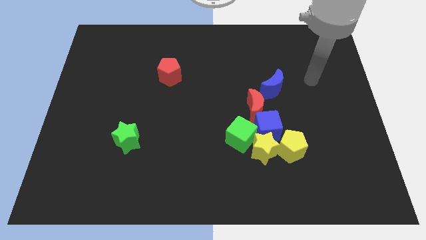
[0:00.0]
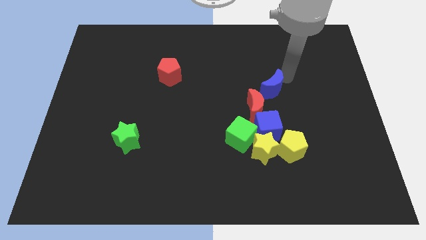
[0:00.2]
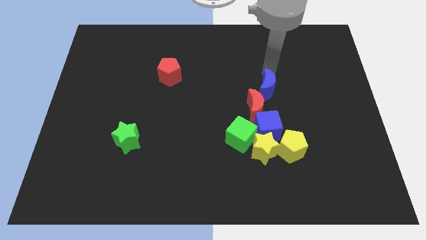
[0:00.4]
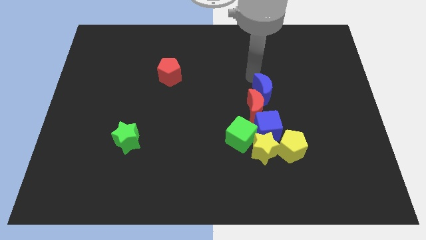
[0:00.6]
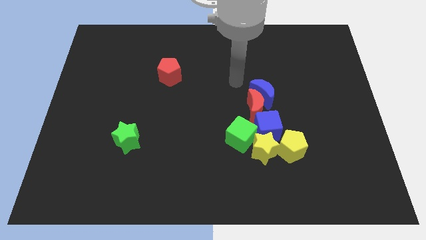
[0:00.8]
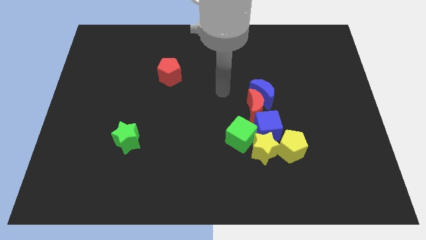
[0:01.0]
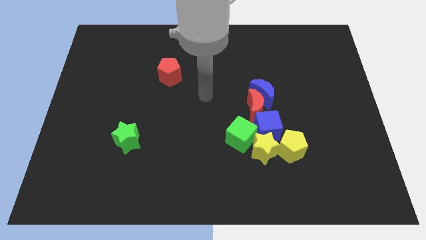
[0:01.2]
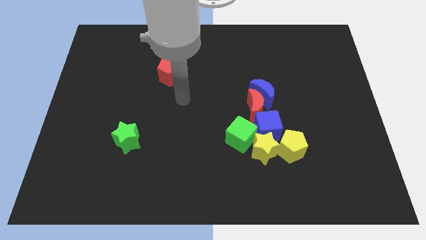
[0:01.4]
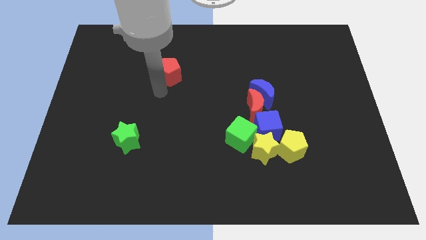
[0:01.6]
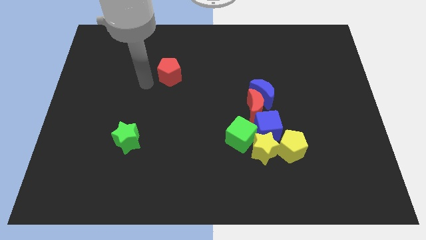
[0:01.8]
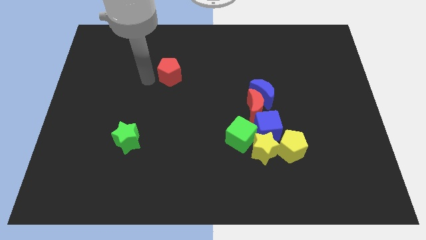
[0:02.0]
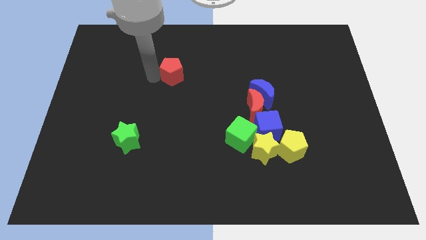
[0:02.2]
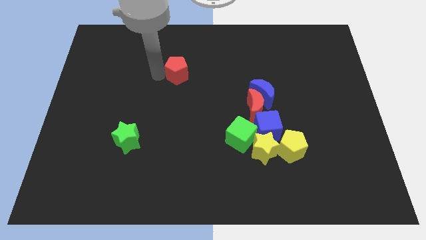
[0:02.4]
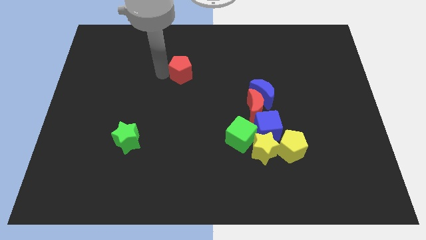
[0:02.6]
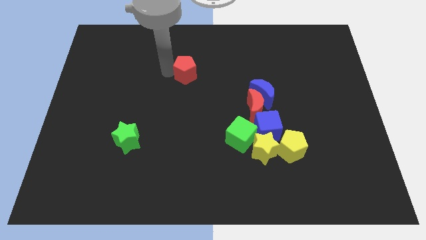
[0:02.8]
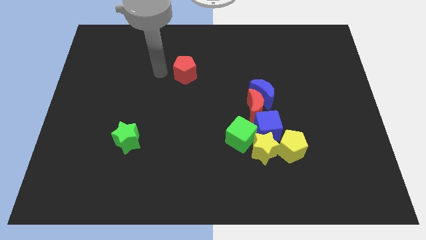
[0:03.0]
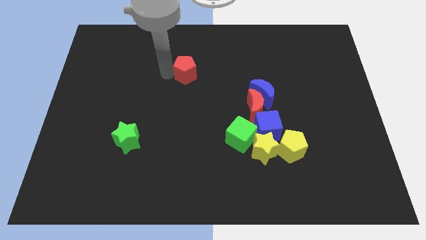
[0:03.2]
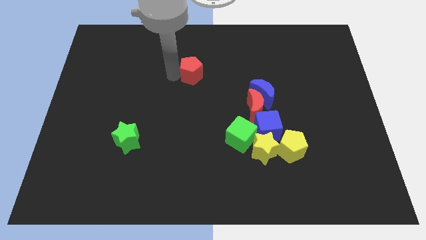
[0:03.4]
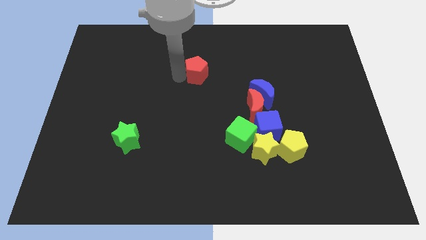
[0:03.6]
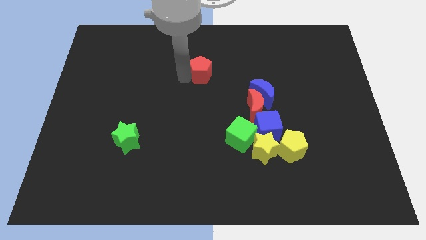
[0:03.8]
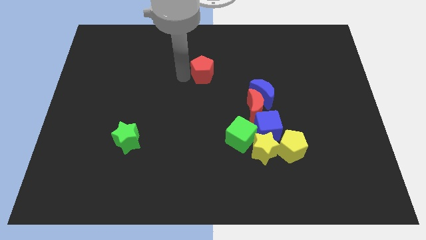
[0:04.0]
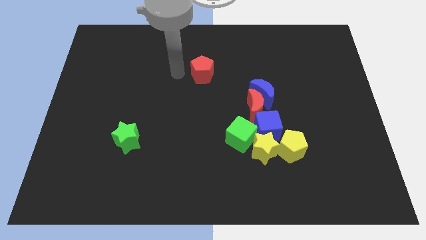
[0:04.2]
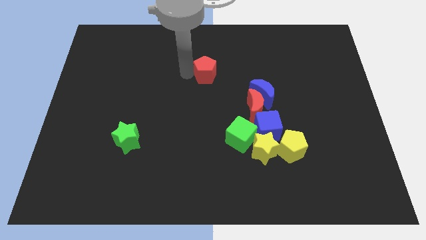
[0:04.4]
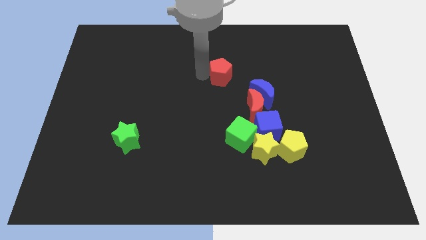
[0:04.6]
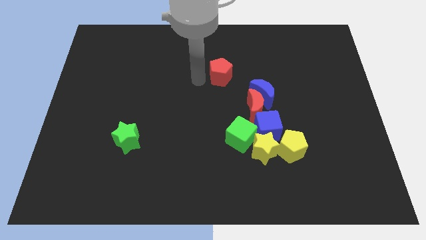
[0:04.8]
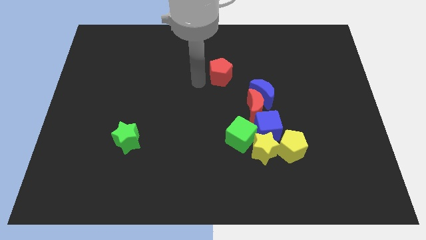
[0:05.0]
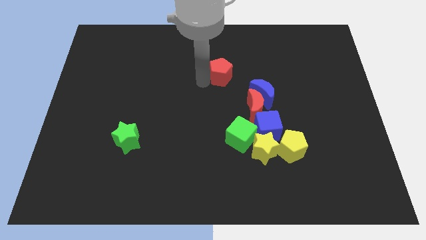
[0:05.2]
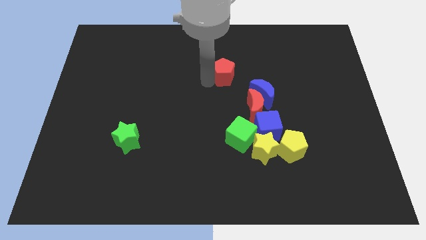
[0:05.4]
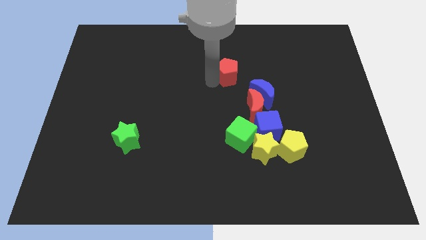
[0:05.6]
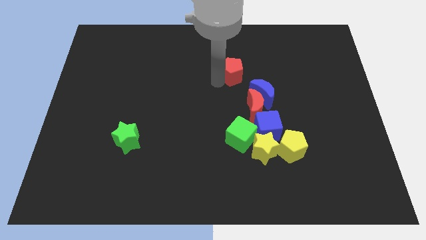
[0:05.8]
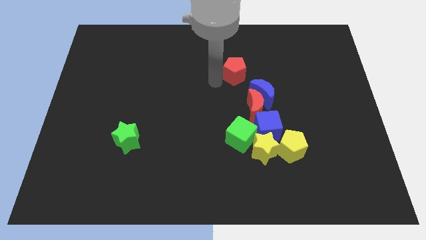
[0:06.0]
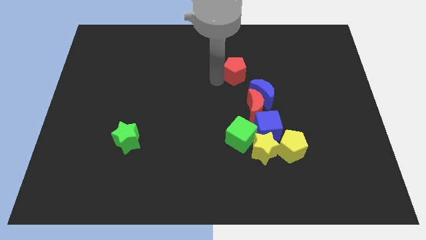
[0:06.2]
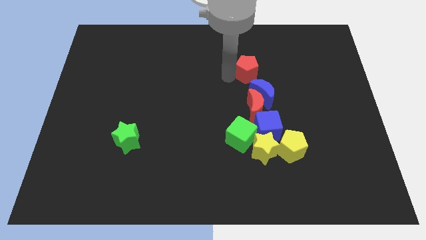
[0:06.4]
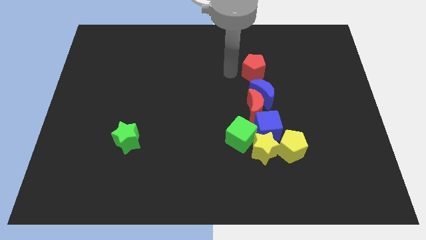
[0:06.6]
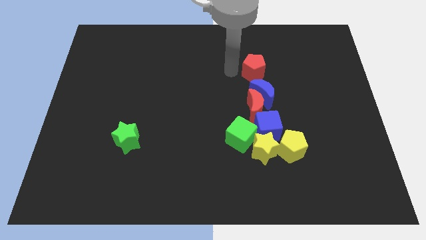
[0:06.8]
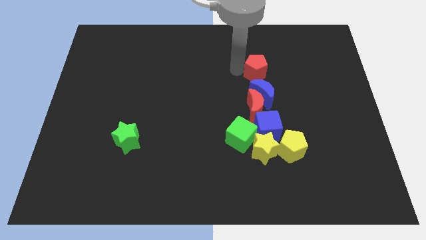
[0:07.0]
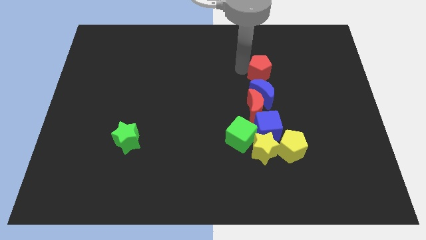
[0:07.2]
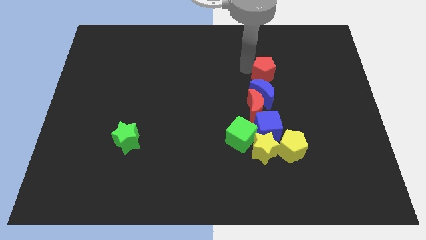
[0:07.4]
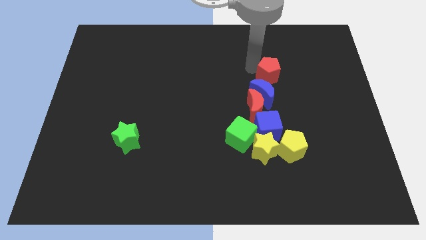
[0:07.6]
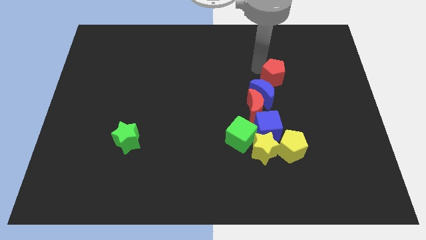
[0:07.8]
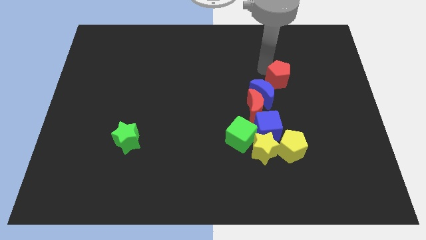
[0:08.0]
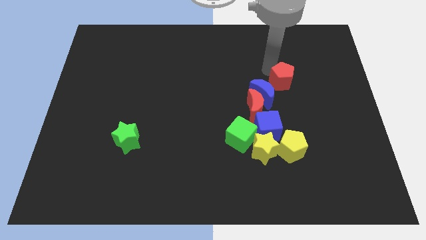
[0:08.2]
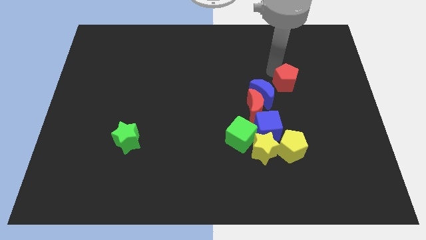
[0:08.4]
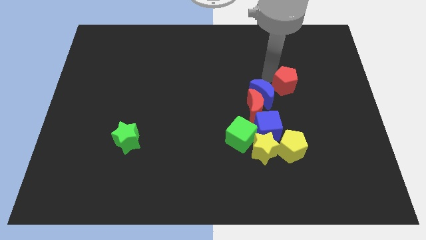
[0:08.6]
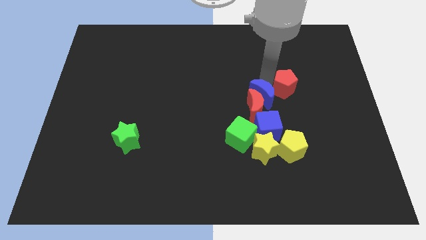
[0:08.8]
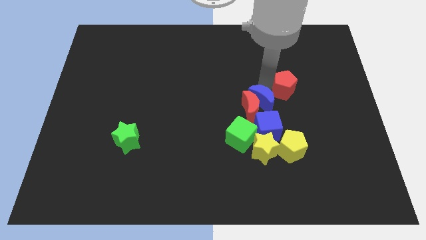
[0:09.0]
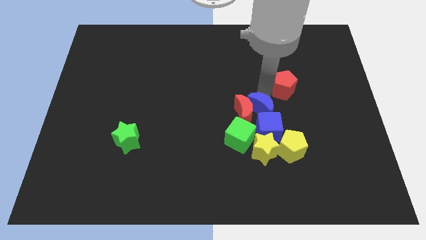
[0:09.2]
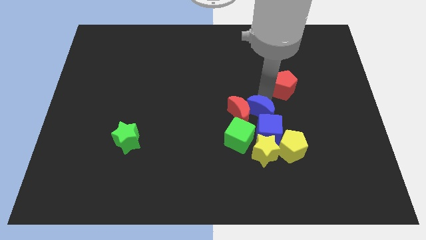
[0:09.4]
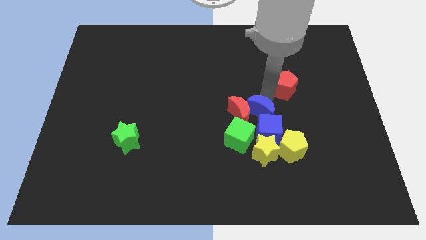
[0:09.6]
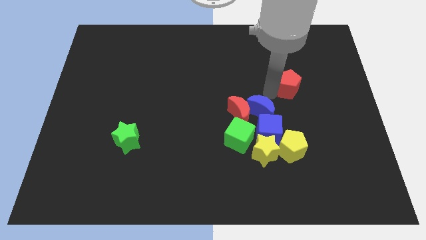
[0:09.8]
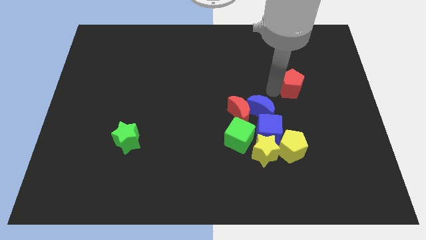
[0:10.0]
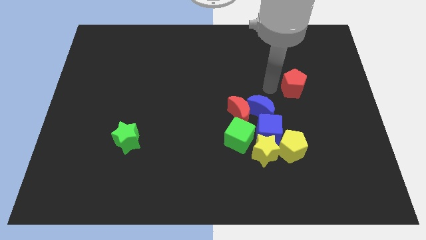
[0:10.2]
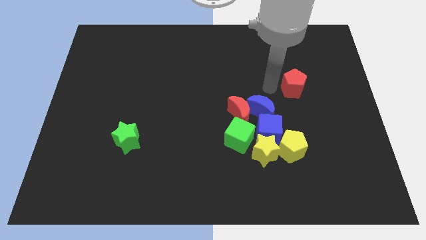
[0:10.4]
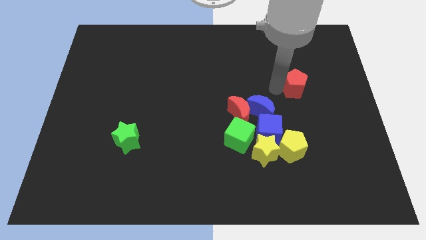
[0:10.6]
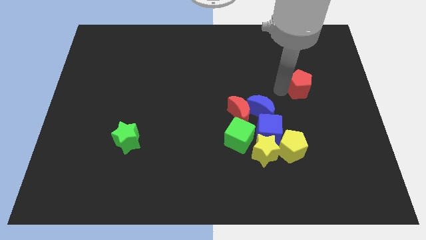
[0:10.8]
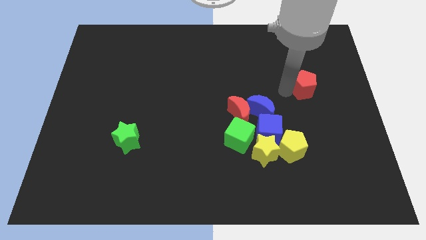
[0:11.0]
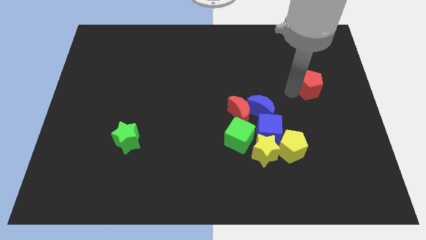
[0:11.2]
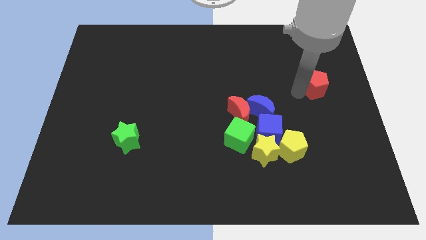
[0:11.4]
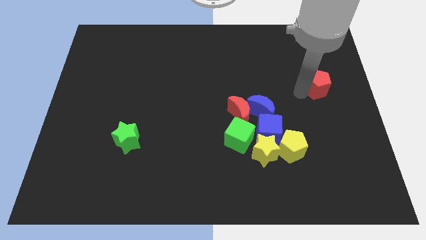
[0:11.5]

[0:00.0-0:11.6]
push the red pentagon to the center right

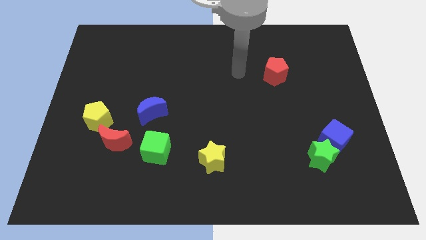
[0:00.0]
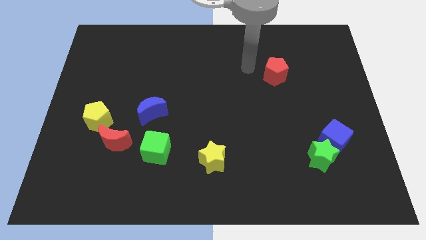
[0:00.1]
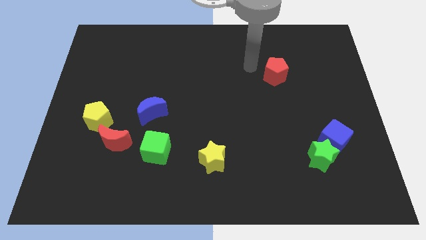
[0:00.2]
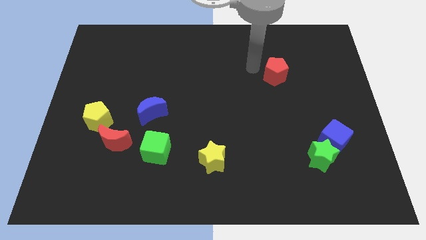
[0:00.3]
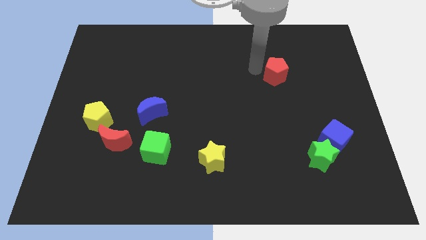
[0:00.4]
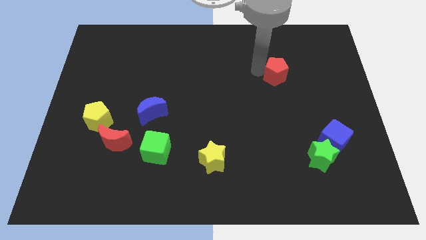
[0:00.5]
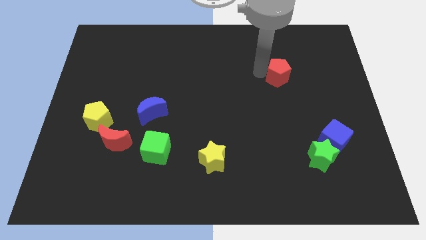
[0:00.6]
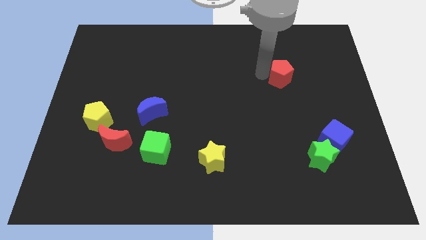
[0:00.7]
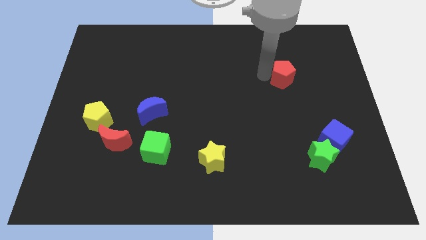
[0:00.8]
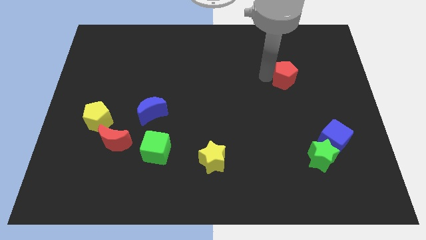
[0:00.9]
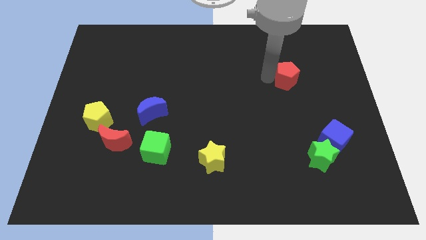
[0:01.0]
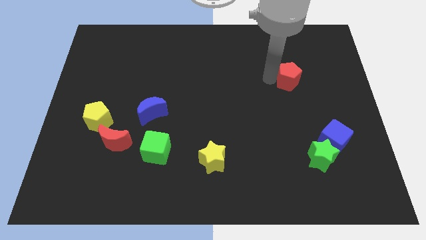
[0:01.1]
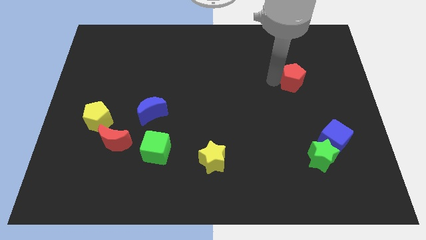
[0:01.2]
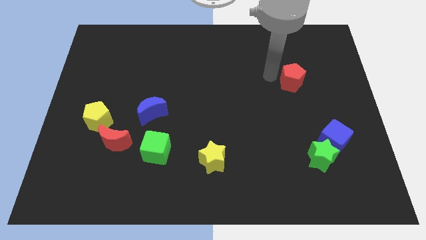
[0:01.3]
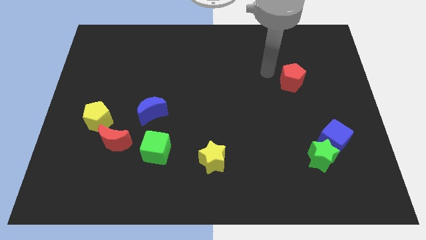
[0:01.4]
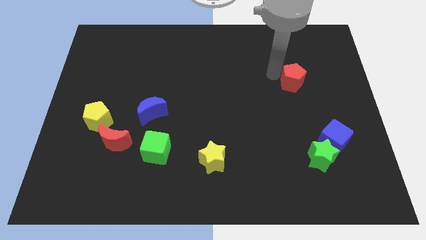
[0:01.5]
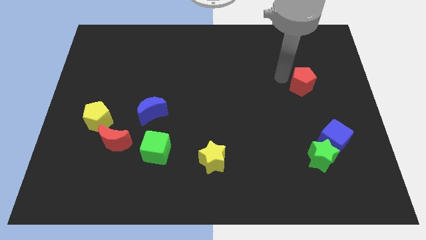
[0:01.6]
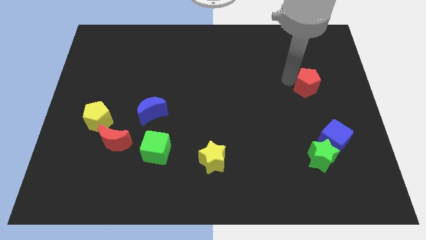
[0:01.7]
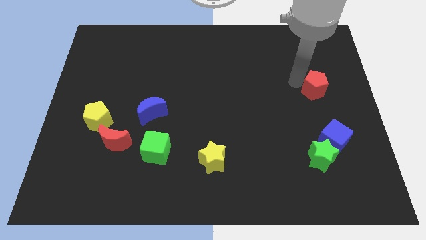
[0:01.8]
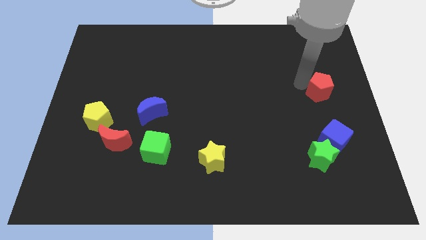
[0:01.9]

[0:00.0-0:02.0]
slide the red pentagon to the center right
